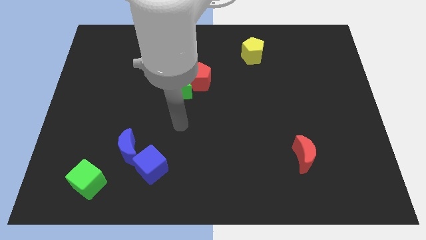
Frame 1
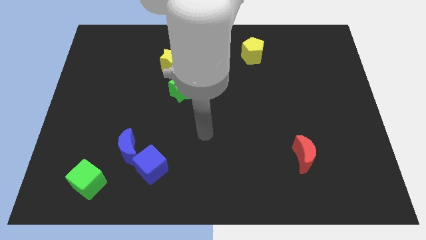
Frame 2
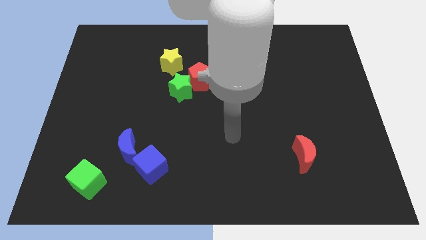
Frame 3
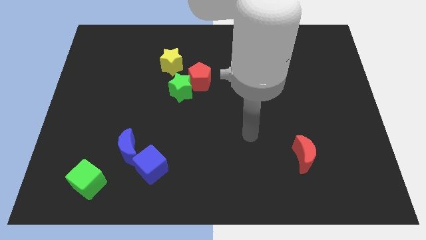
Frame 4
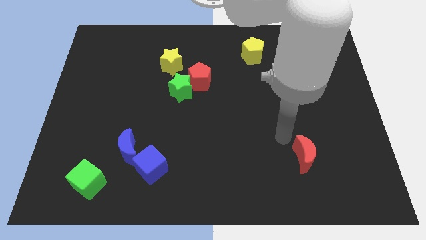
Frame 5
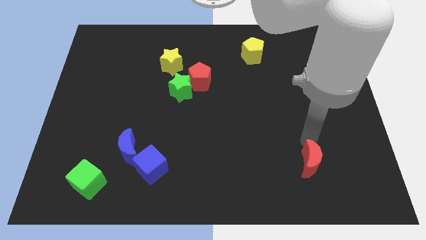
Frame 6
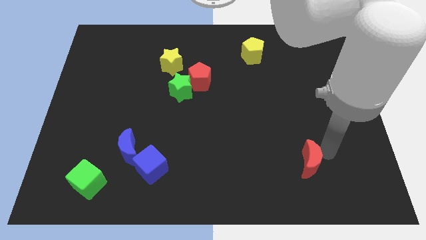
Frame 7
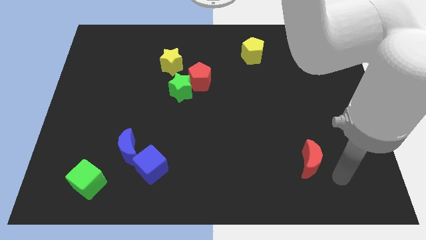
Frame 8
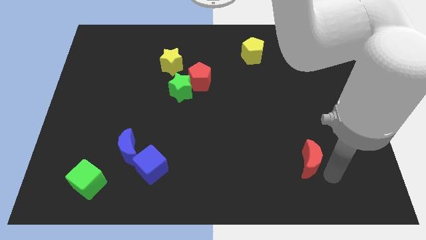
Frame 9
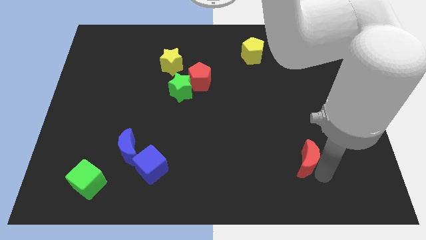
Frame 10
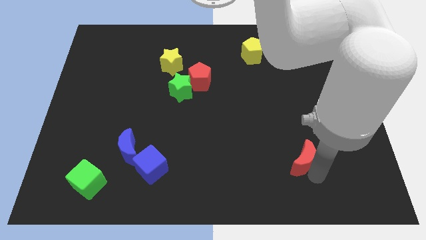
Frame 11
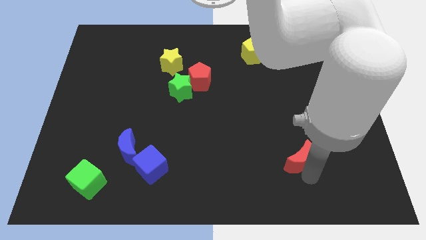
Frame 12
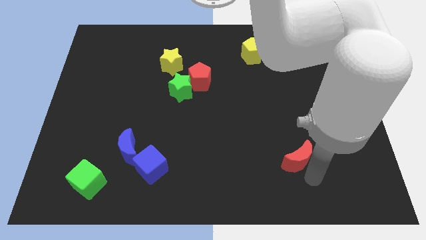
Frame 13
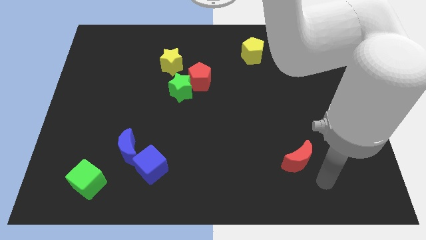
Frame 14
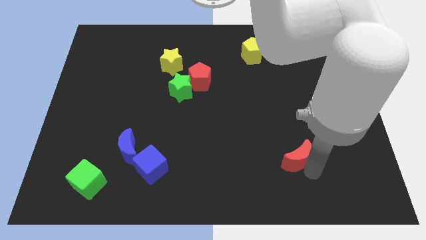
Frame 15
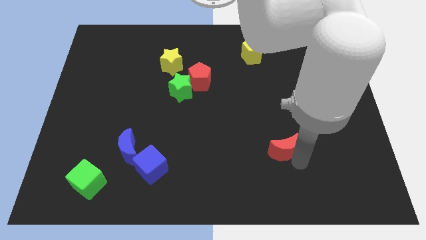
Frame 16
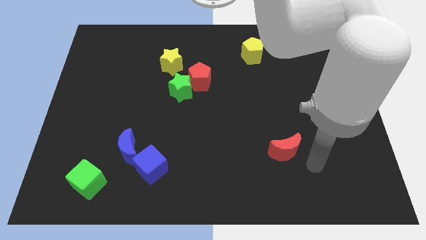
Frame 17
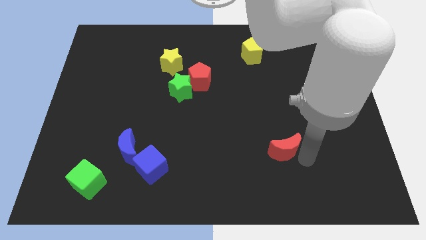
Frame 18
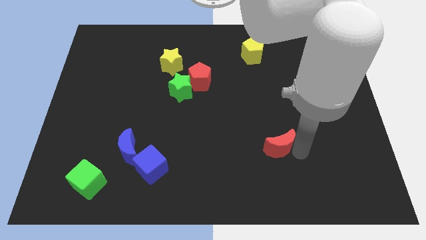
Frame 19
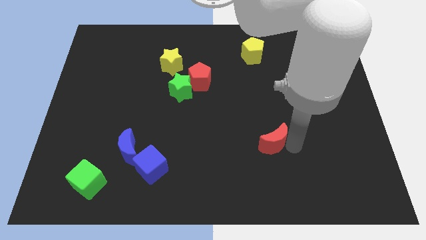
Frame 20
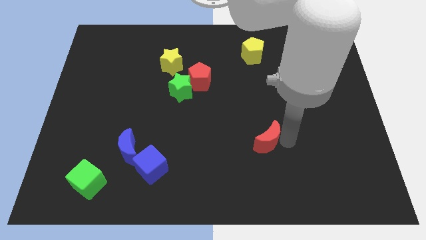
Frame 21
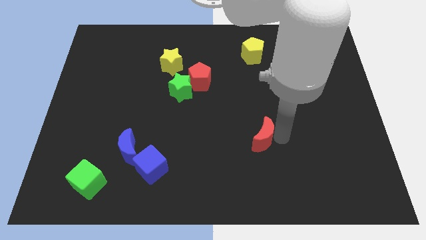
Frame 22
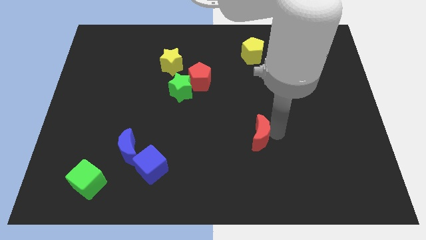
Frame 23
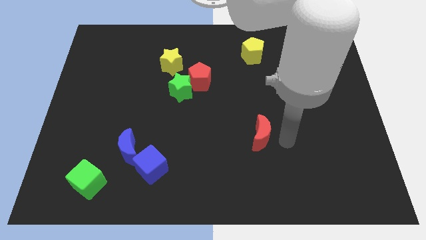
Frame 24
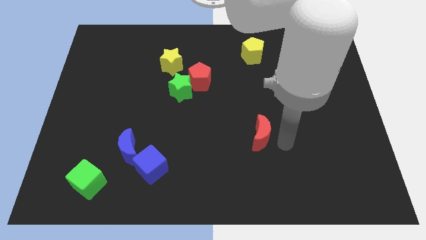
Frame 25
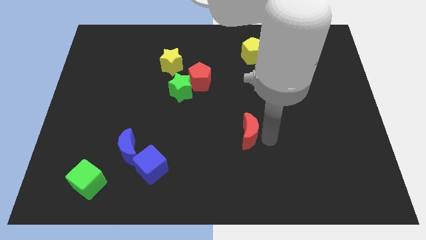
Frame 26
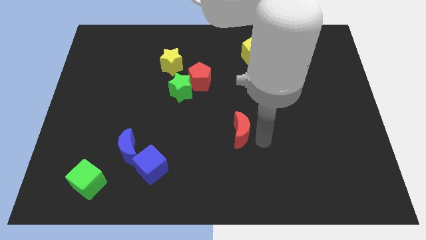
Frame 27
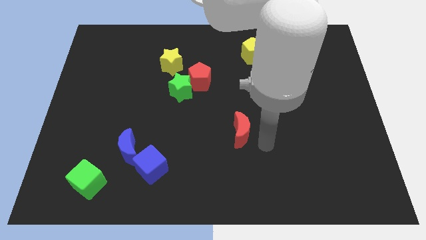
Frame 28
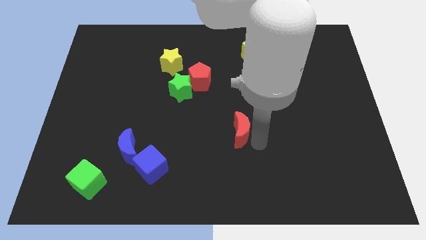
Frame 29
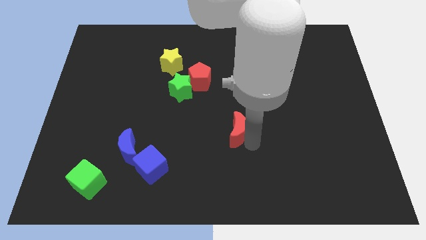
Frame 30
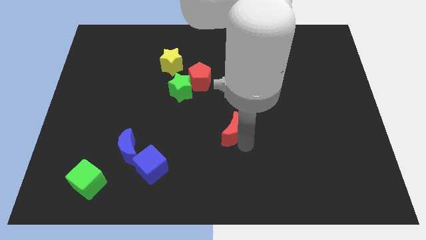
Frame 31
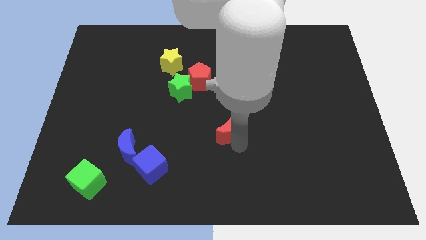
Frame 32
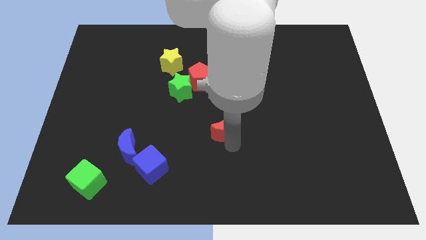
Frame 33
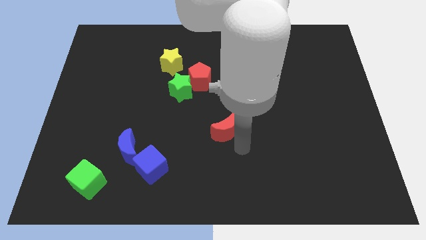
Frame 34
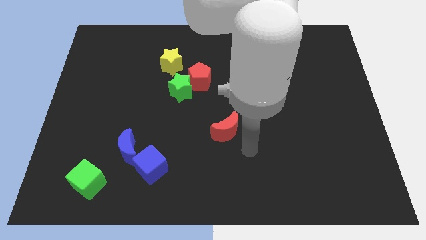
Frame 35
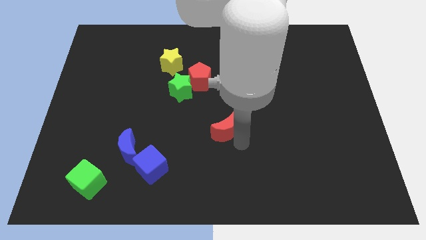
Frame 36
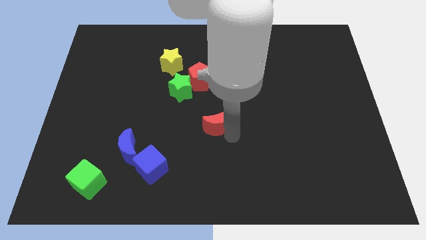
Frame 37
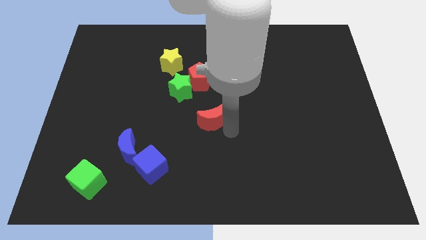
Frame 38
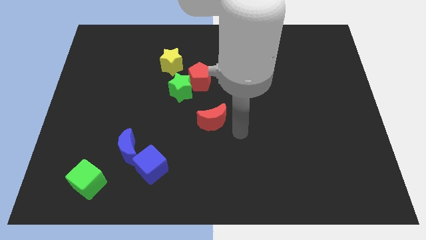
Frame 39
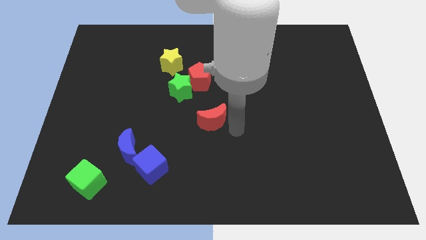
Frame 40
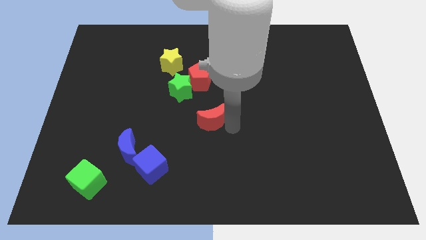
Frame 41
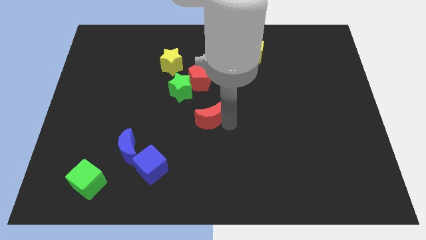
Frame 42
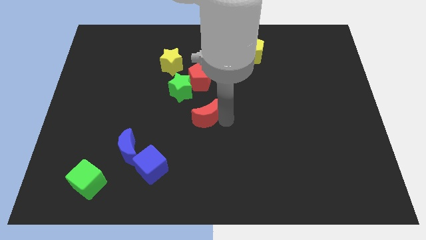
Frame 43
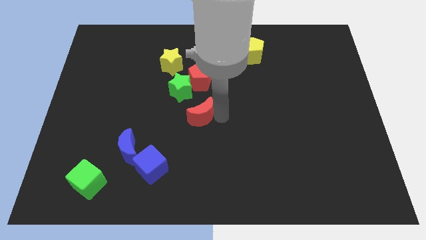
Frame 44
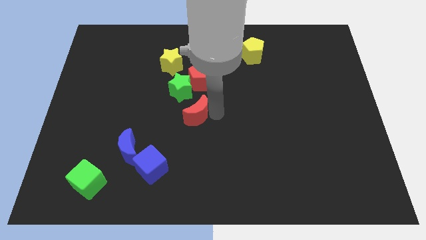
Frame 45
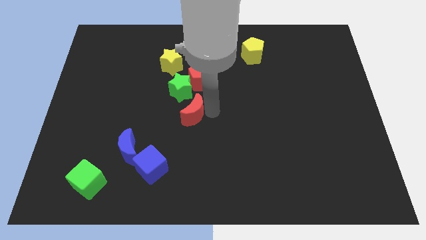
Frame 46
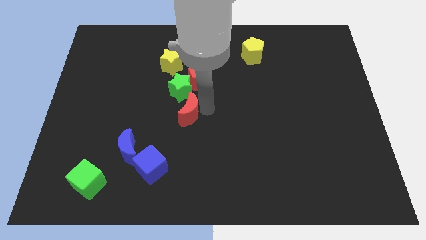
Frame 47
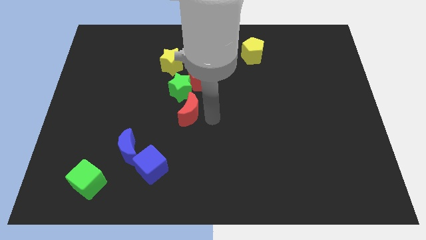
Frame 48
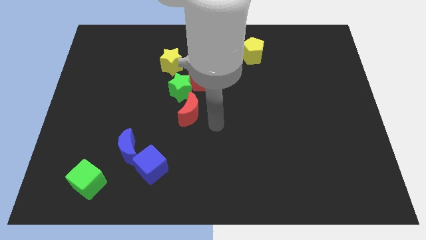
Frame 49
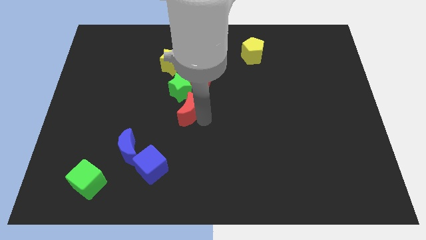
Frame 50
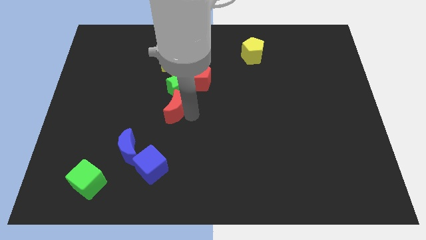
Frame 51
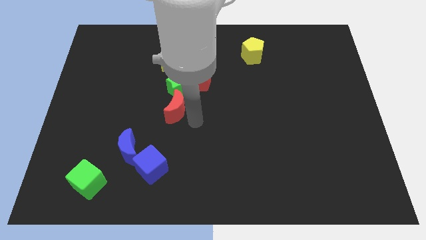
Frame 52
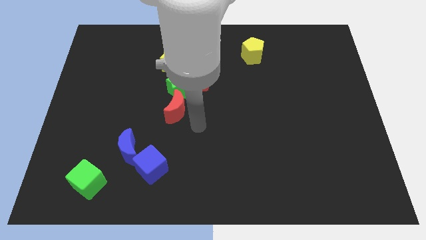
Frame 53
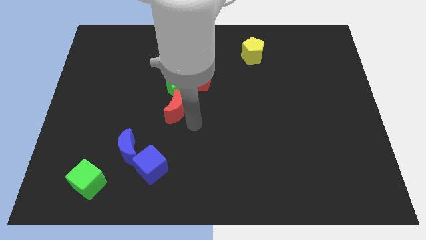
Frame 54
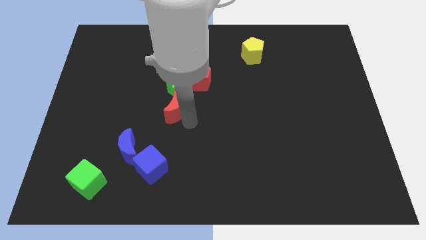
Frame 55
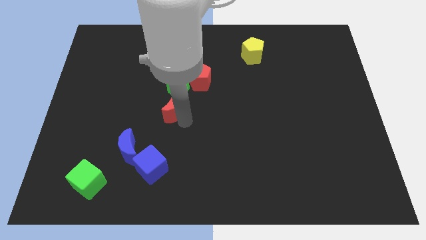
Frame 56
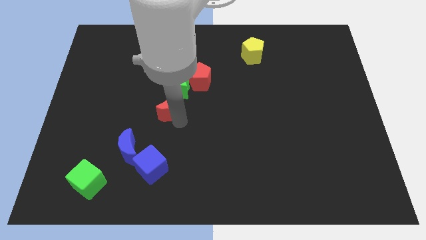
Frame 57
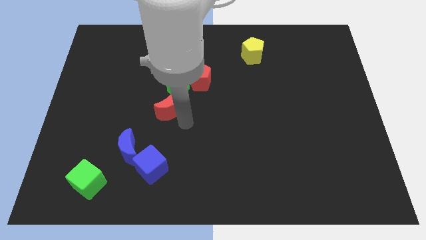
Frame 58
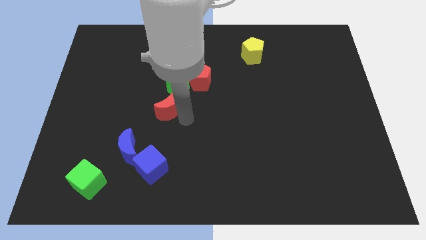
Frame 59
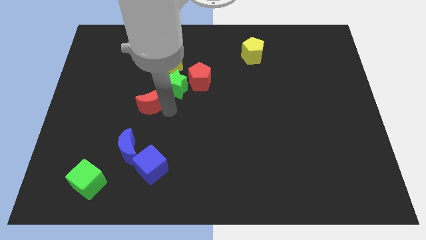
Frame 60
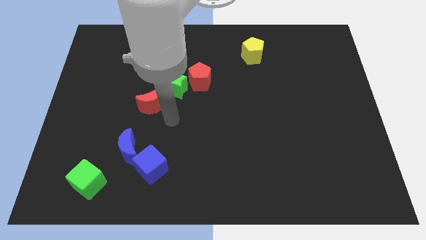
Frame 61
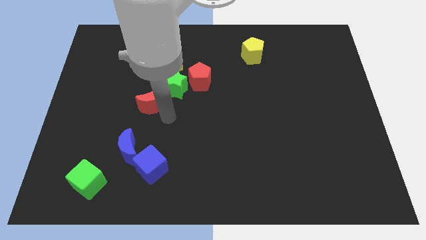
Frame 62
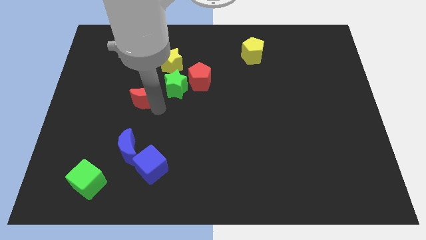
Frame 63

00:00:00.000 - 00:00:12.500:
push the red moon to the left of the green star

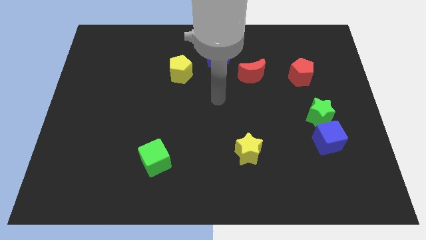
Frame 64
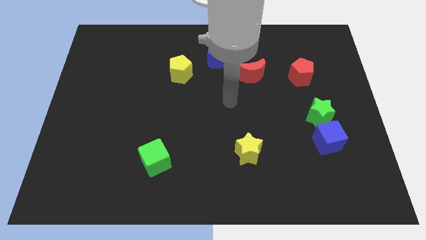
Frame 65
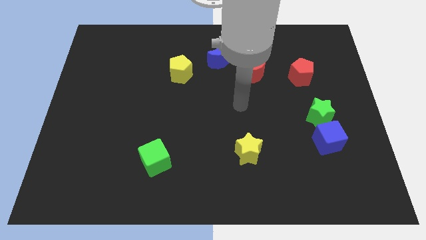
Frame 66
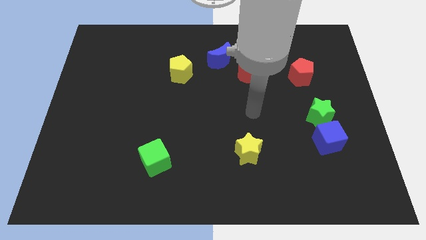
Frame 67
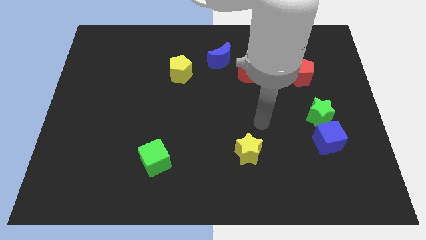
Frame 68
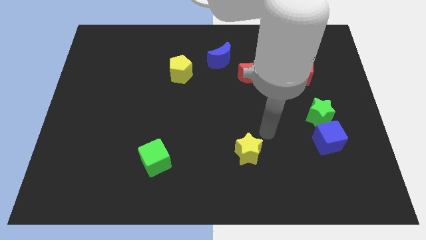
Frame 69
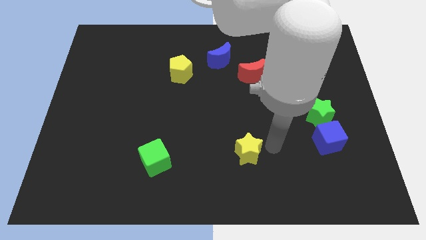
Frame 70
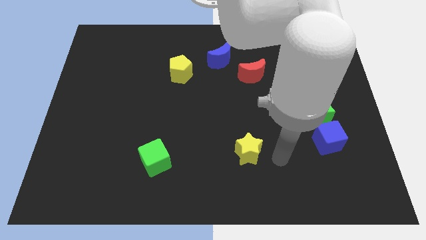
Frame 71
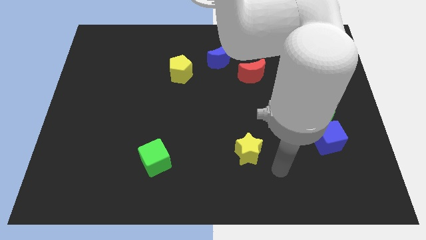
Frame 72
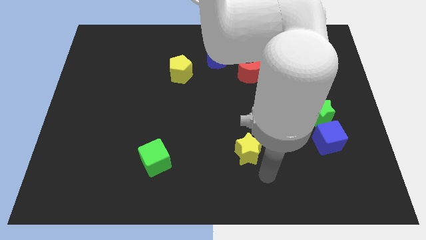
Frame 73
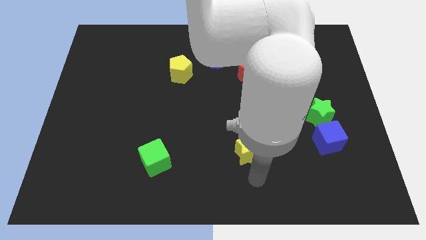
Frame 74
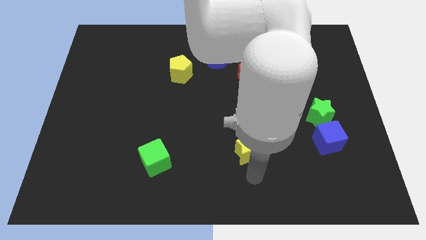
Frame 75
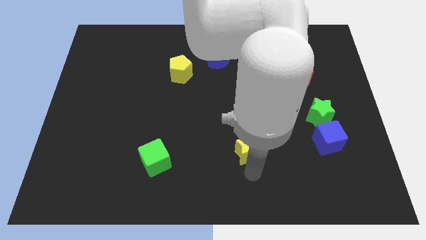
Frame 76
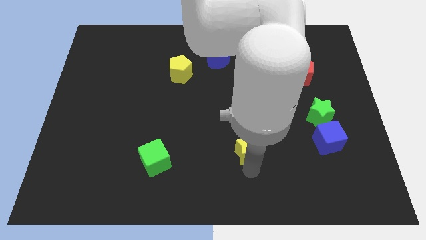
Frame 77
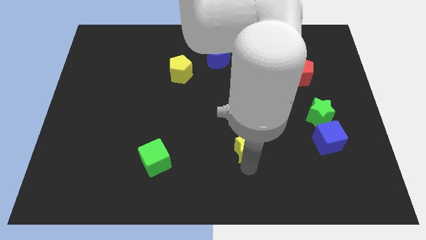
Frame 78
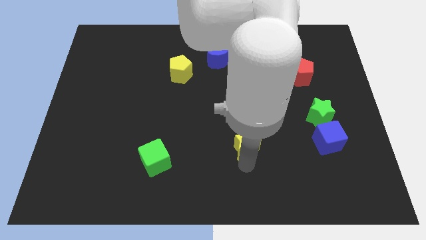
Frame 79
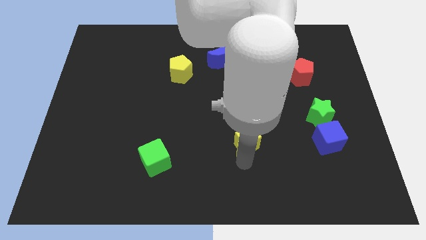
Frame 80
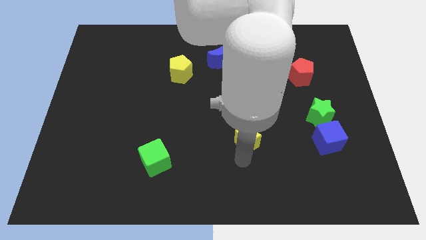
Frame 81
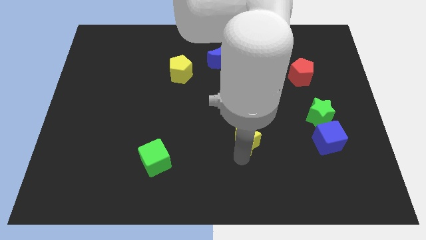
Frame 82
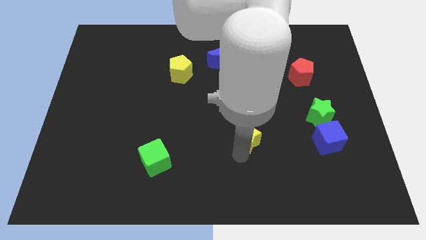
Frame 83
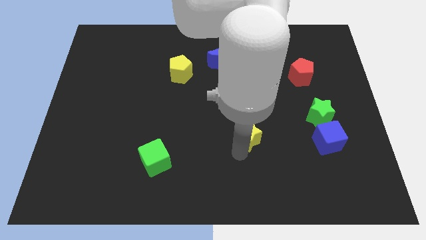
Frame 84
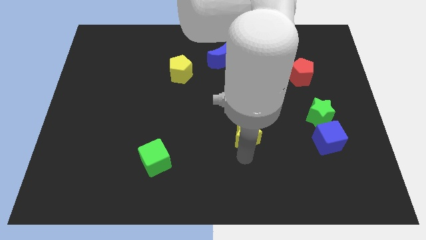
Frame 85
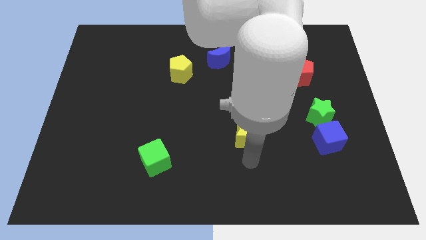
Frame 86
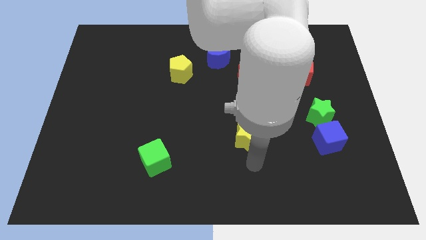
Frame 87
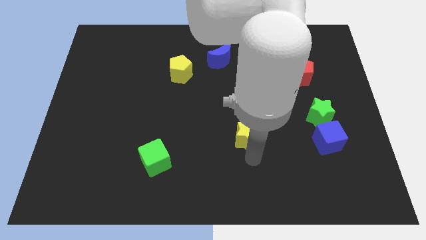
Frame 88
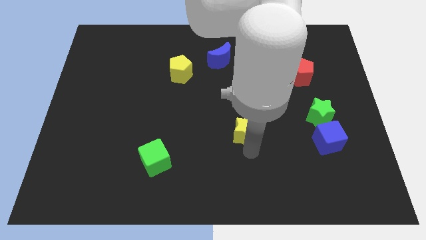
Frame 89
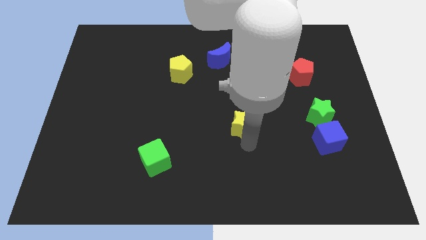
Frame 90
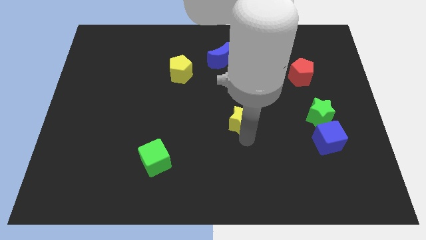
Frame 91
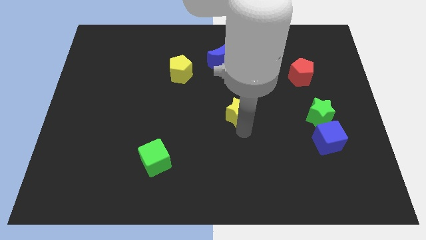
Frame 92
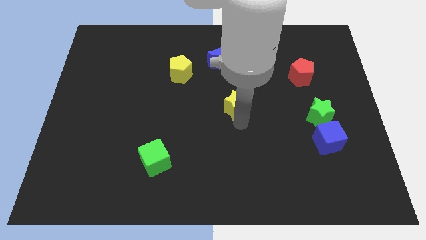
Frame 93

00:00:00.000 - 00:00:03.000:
put the yellow star to the bottom left of the red moon
